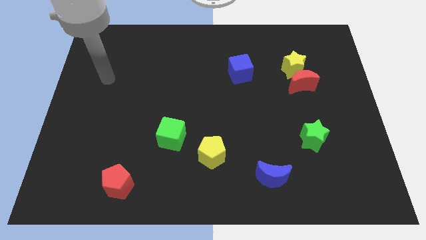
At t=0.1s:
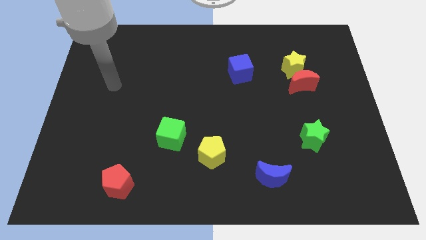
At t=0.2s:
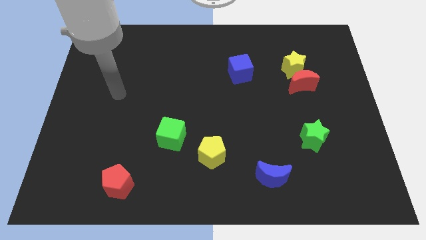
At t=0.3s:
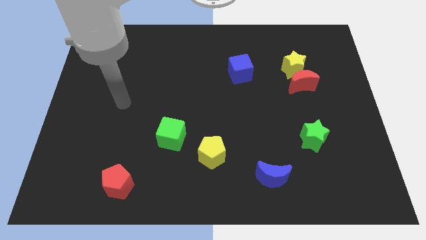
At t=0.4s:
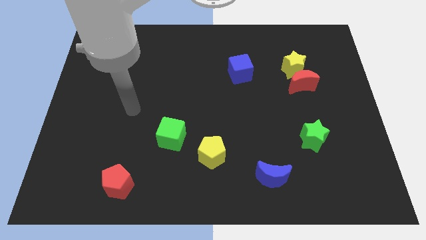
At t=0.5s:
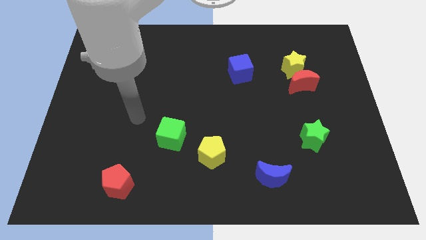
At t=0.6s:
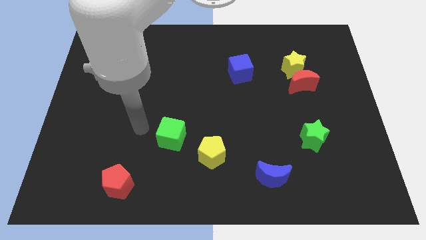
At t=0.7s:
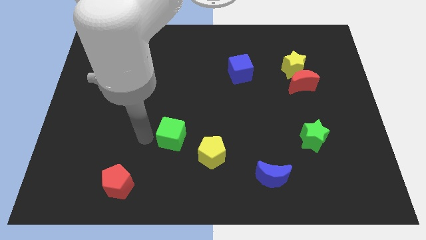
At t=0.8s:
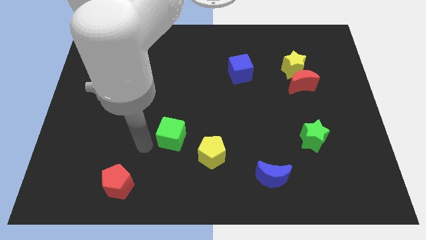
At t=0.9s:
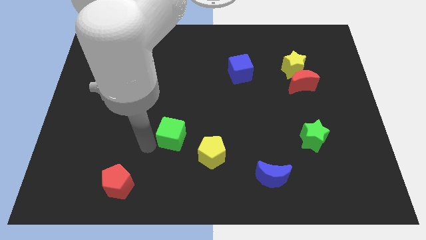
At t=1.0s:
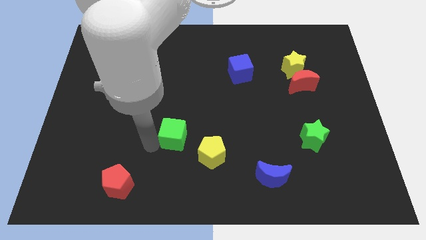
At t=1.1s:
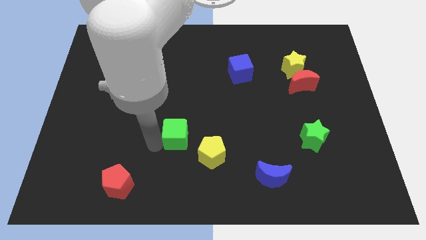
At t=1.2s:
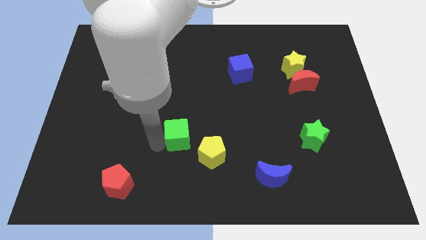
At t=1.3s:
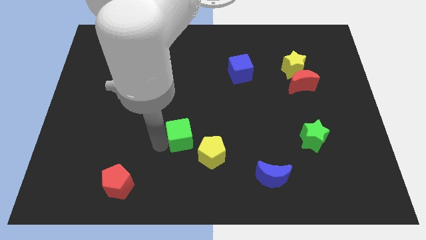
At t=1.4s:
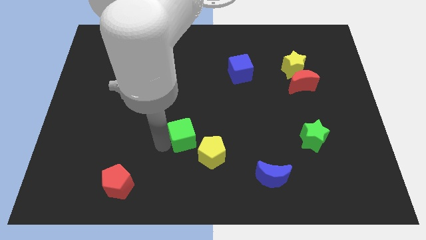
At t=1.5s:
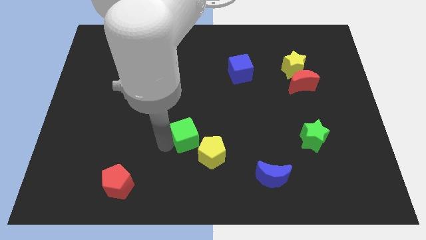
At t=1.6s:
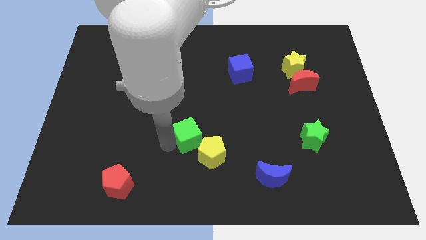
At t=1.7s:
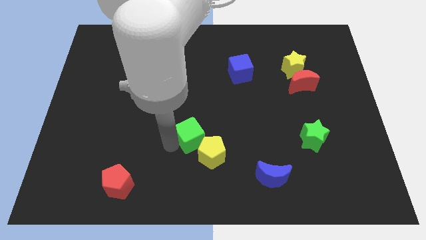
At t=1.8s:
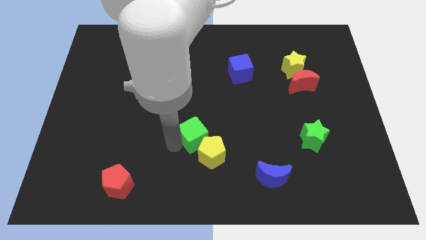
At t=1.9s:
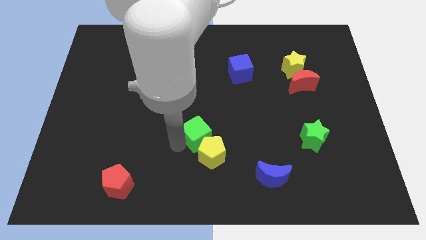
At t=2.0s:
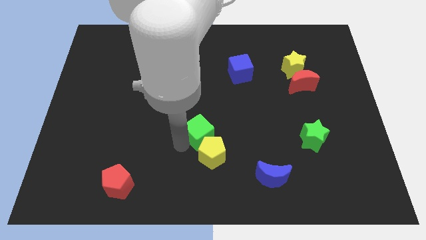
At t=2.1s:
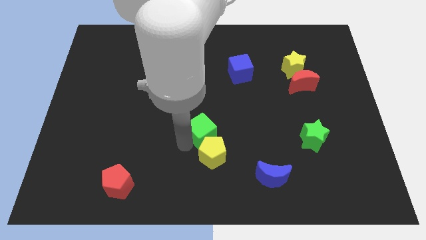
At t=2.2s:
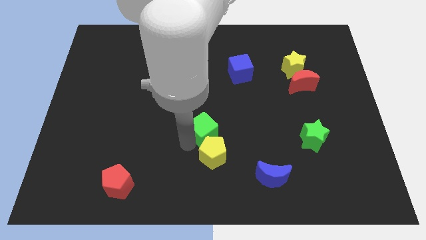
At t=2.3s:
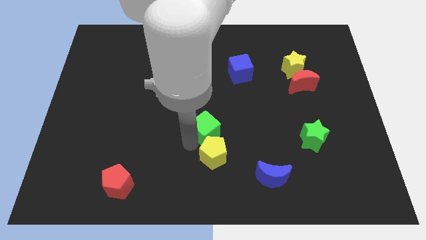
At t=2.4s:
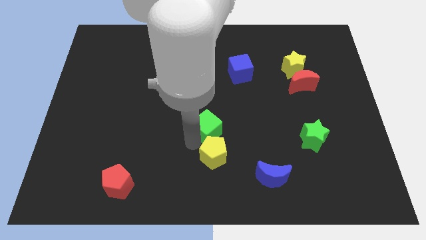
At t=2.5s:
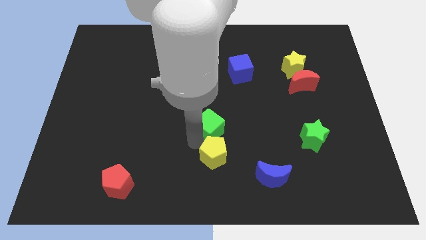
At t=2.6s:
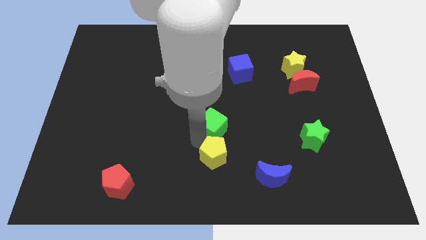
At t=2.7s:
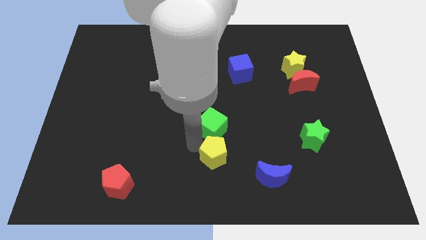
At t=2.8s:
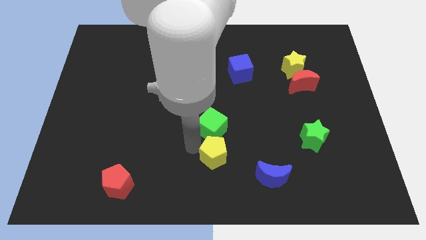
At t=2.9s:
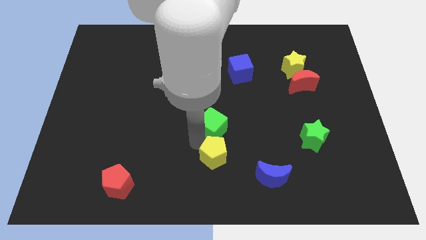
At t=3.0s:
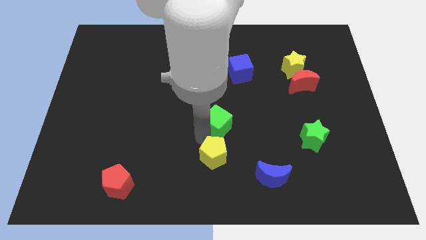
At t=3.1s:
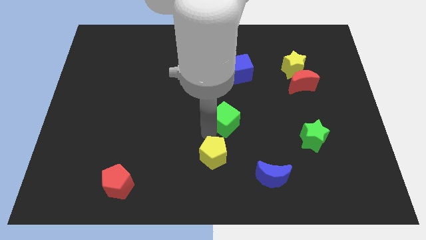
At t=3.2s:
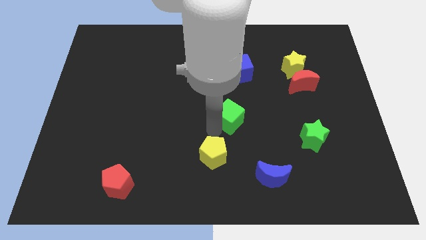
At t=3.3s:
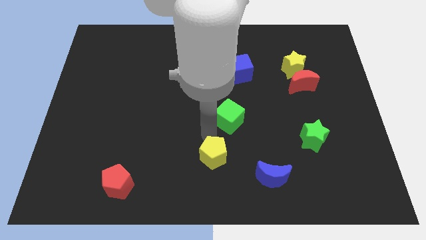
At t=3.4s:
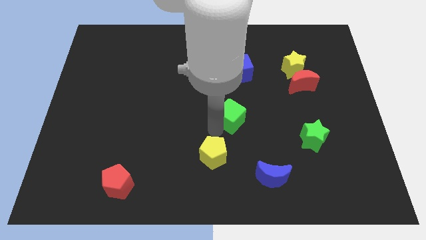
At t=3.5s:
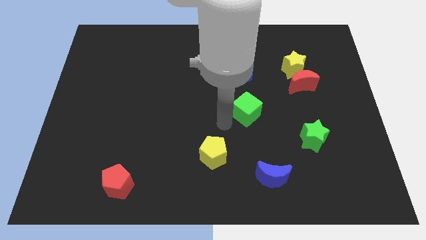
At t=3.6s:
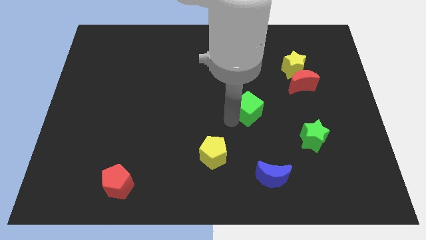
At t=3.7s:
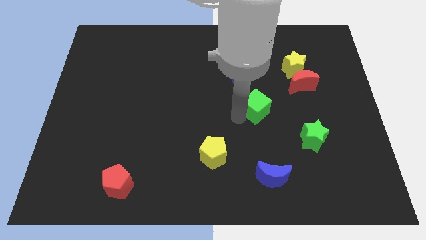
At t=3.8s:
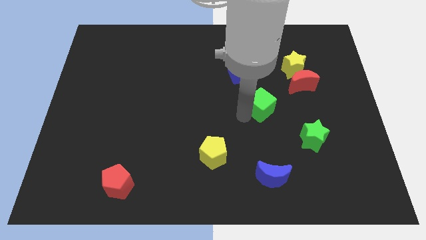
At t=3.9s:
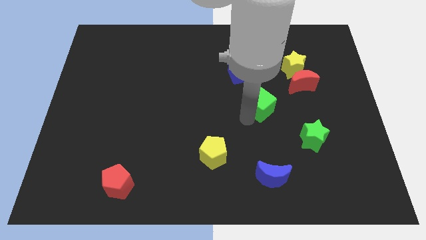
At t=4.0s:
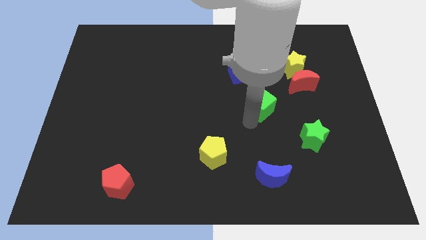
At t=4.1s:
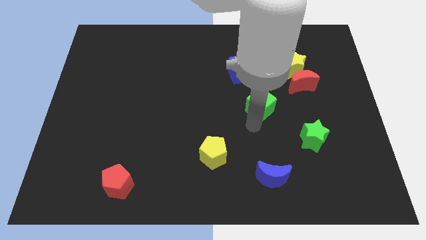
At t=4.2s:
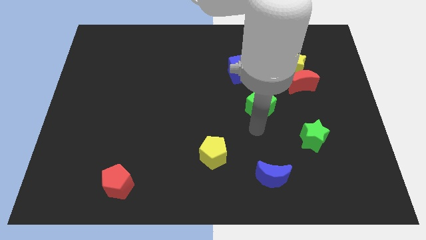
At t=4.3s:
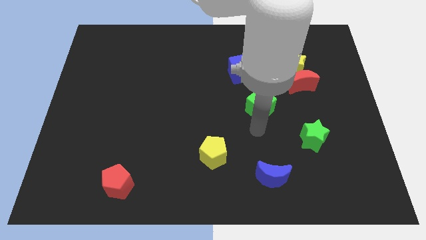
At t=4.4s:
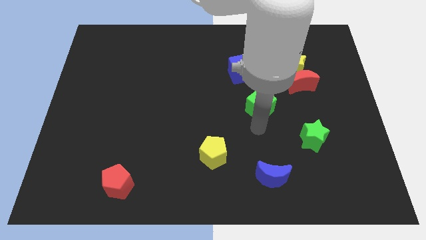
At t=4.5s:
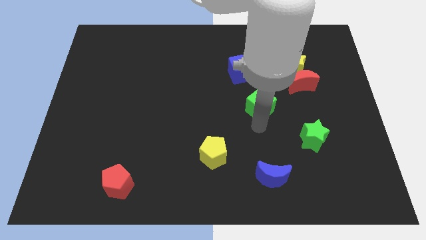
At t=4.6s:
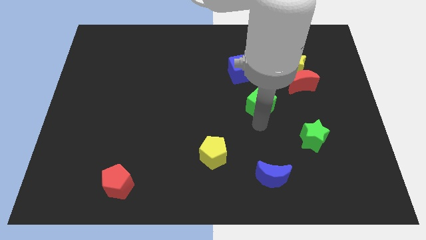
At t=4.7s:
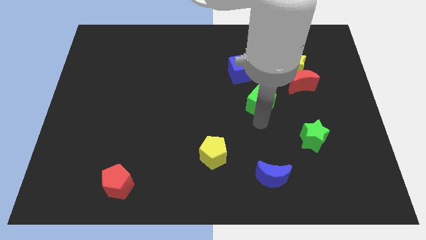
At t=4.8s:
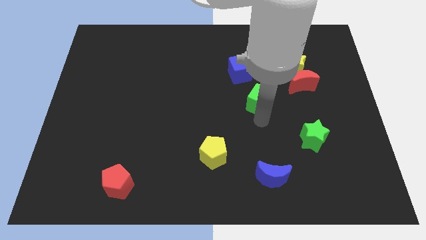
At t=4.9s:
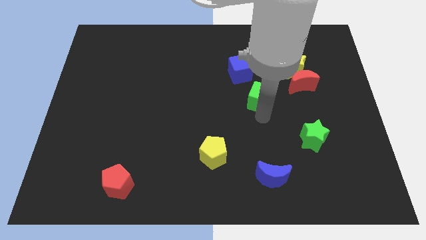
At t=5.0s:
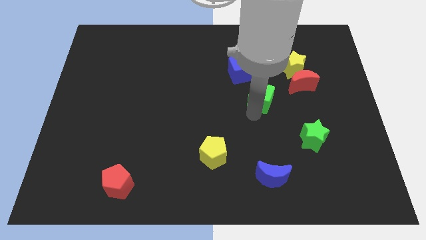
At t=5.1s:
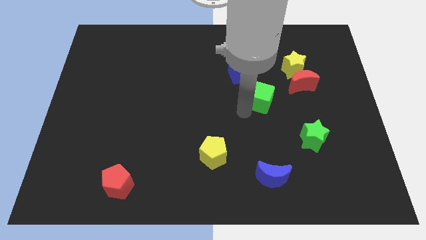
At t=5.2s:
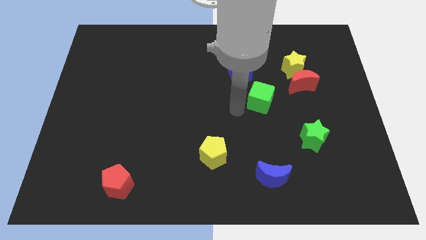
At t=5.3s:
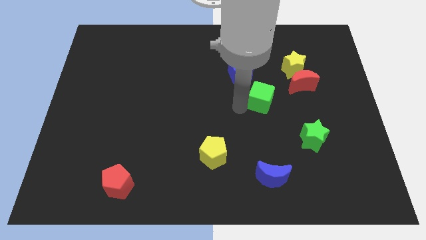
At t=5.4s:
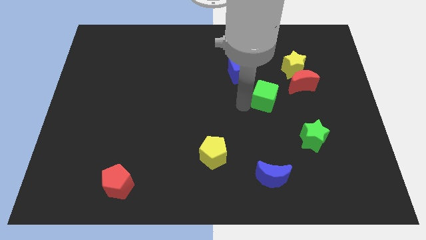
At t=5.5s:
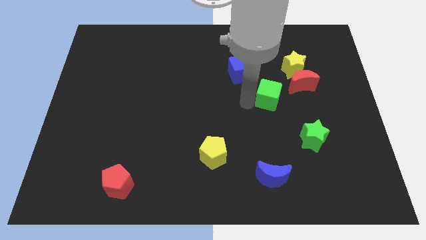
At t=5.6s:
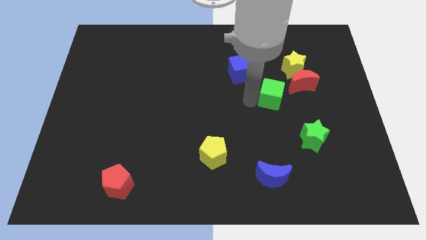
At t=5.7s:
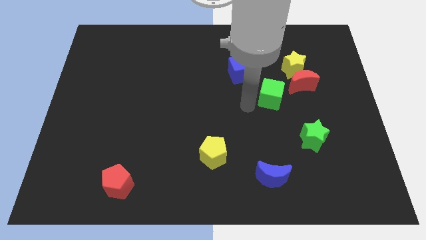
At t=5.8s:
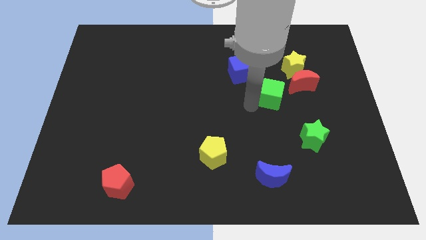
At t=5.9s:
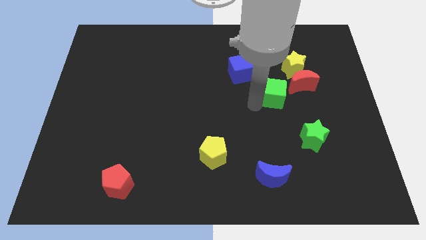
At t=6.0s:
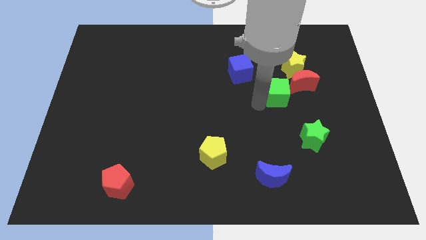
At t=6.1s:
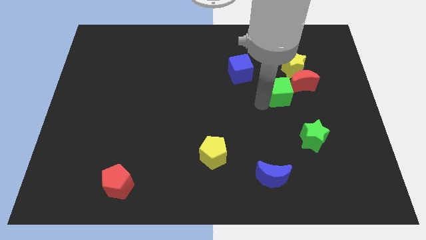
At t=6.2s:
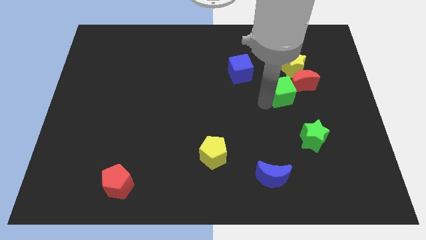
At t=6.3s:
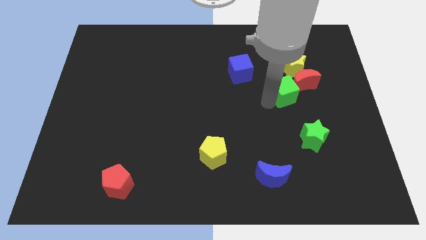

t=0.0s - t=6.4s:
slide the green cube next to the red moon

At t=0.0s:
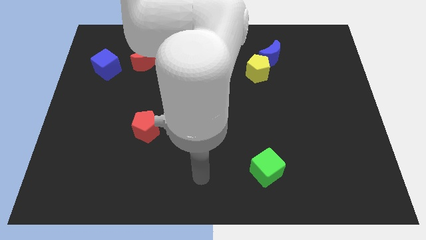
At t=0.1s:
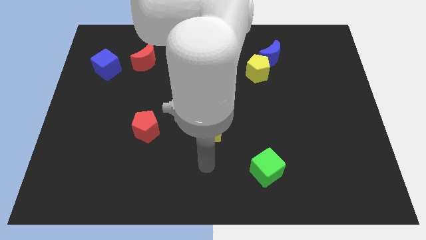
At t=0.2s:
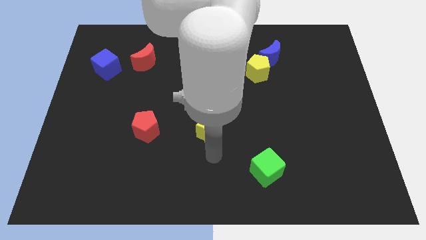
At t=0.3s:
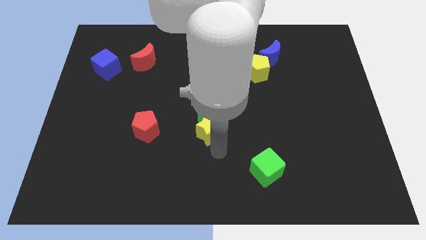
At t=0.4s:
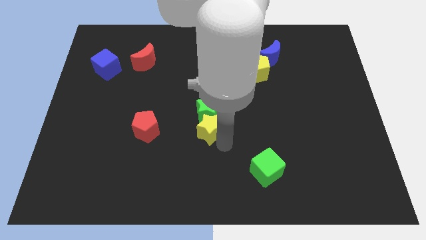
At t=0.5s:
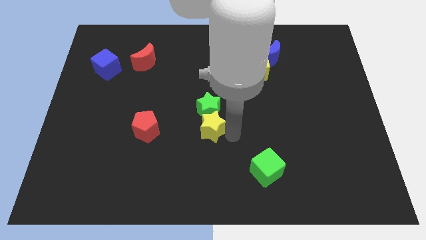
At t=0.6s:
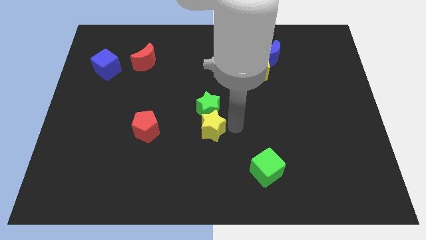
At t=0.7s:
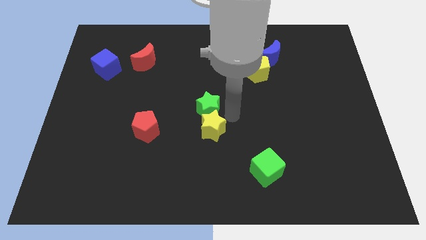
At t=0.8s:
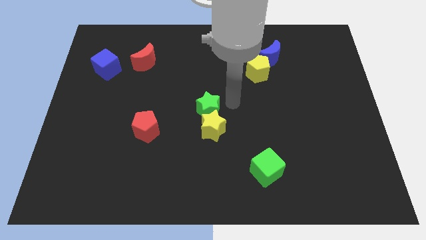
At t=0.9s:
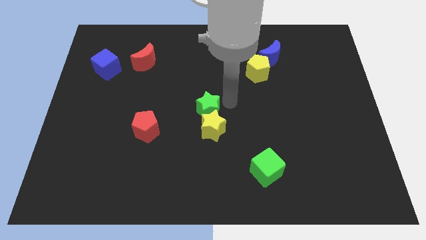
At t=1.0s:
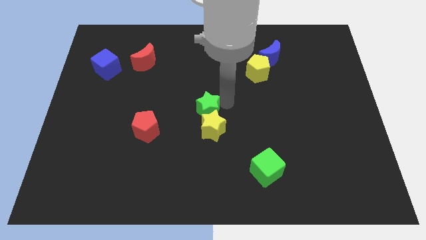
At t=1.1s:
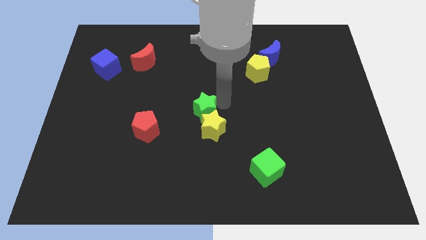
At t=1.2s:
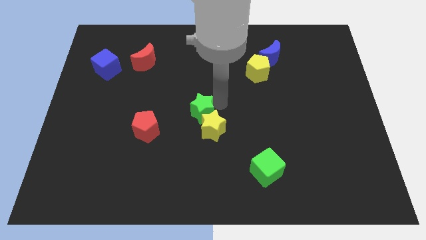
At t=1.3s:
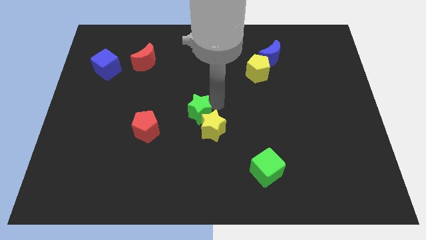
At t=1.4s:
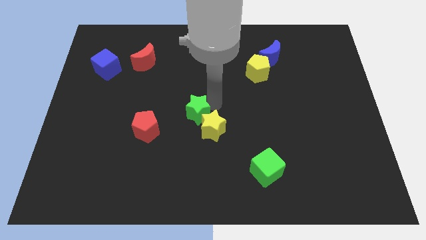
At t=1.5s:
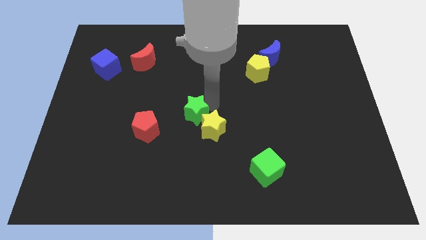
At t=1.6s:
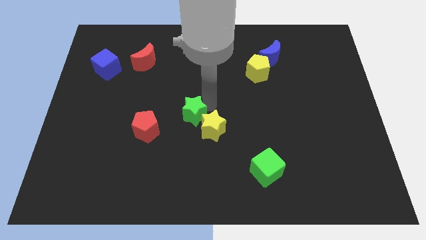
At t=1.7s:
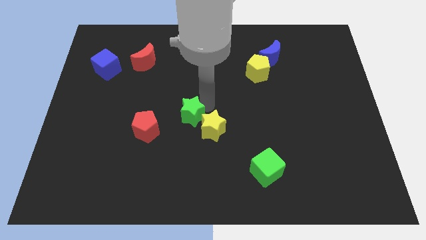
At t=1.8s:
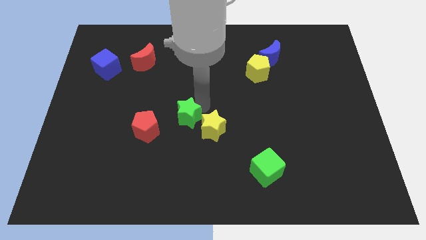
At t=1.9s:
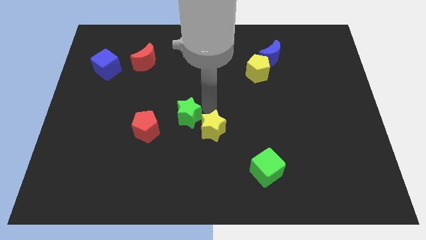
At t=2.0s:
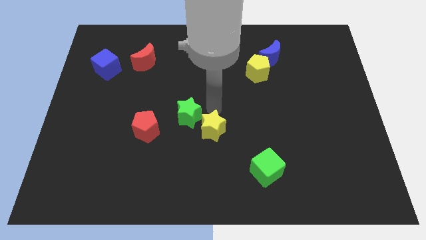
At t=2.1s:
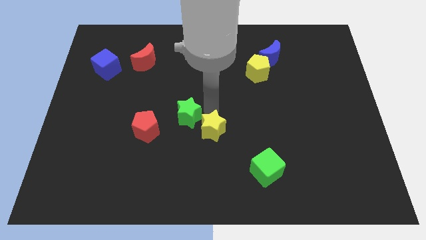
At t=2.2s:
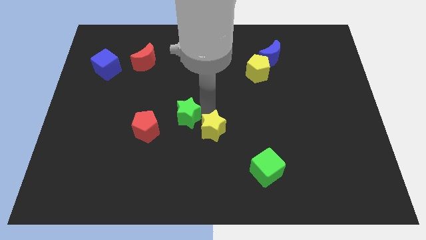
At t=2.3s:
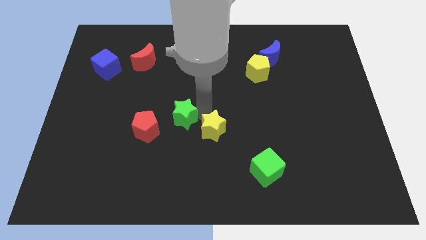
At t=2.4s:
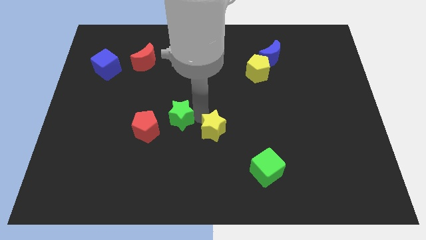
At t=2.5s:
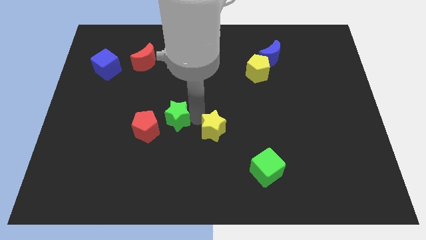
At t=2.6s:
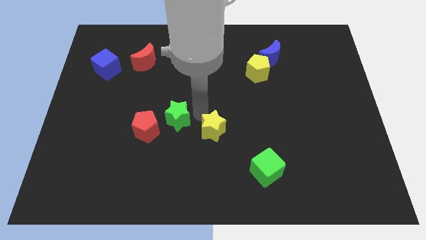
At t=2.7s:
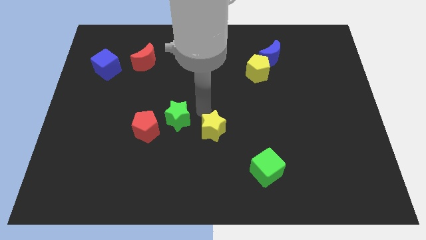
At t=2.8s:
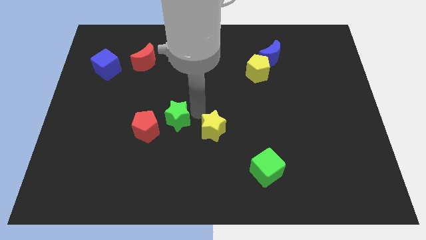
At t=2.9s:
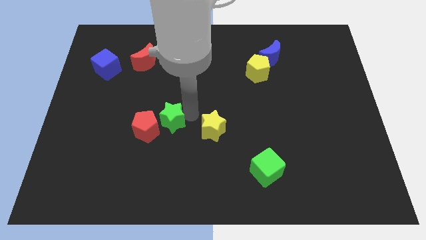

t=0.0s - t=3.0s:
push the green star to the red pentagon
